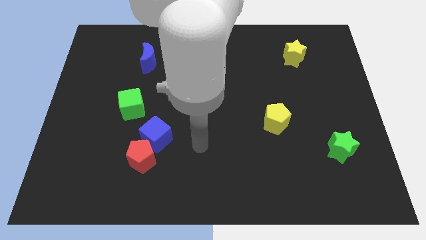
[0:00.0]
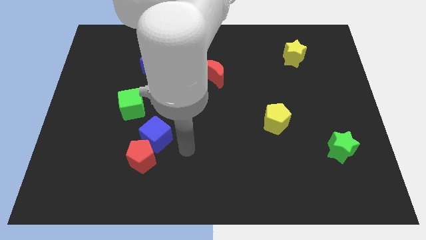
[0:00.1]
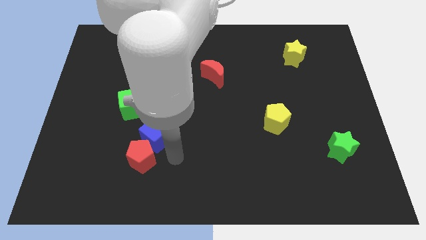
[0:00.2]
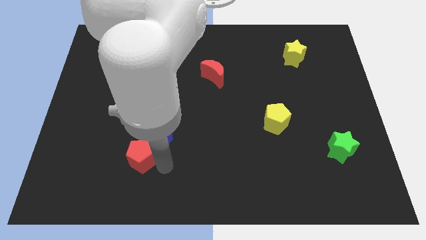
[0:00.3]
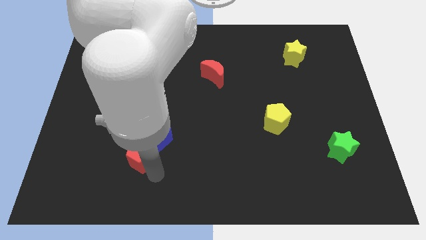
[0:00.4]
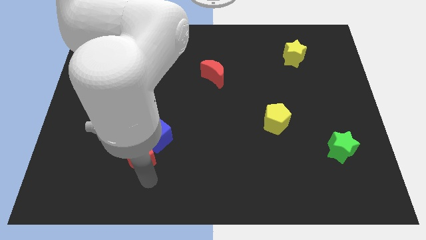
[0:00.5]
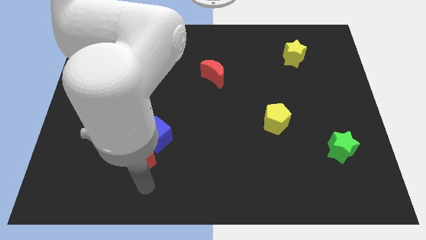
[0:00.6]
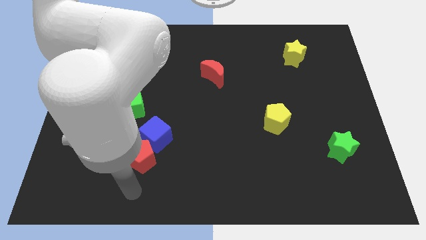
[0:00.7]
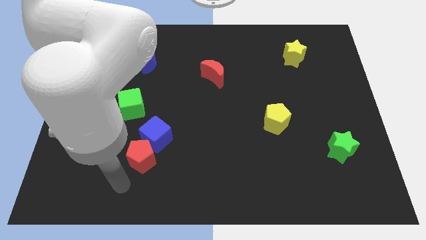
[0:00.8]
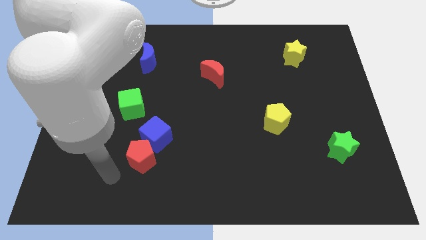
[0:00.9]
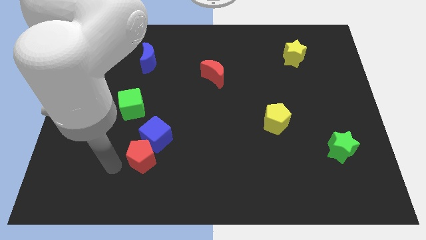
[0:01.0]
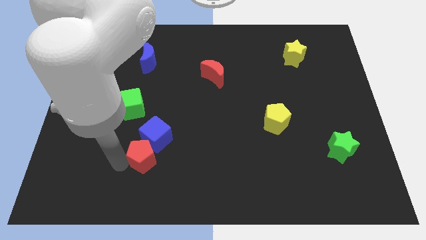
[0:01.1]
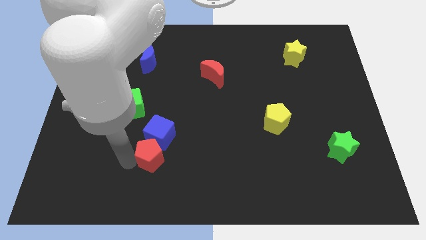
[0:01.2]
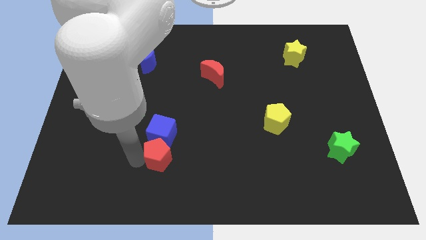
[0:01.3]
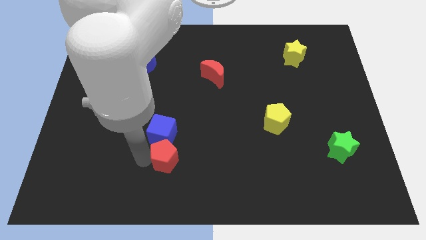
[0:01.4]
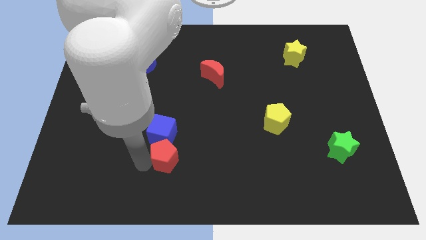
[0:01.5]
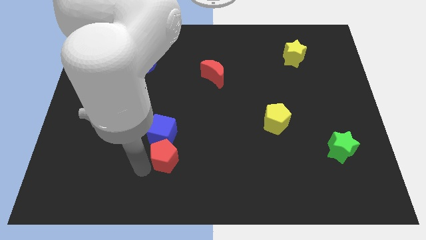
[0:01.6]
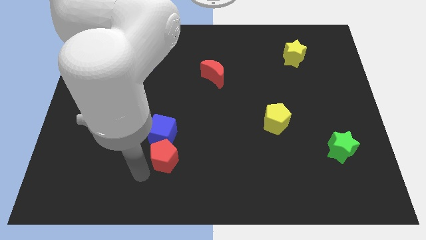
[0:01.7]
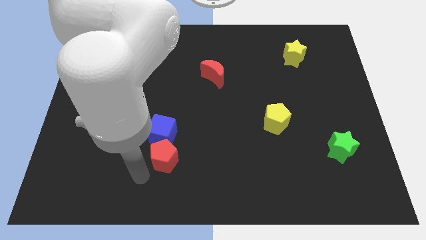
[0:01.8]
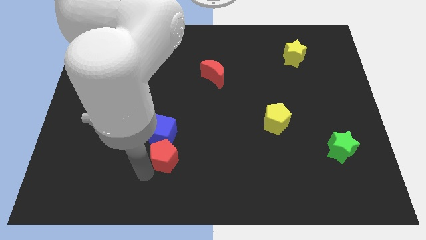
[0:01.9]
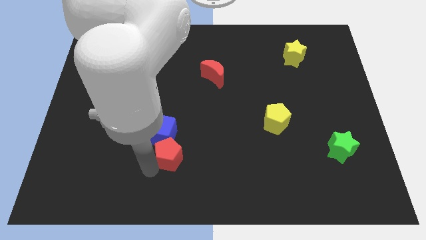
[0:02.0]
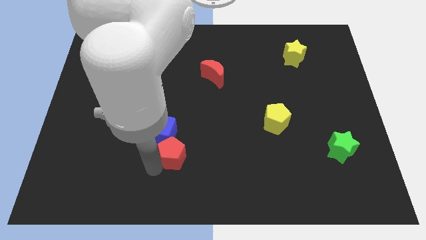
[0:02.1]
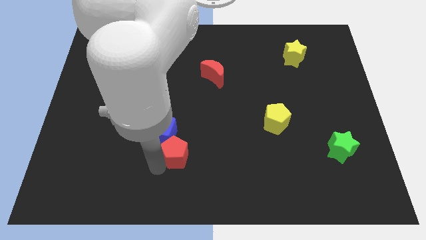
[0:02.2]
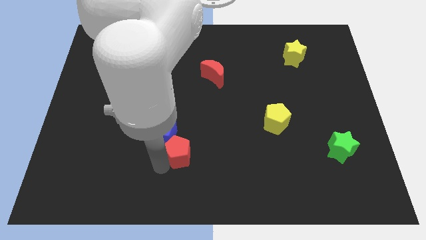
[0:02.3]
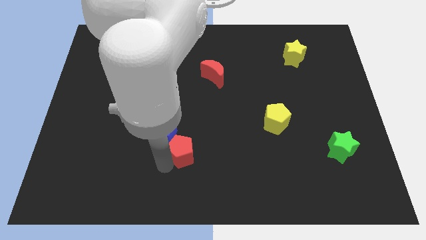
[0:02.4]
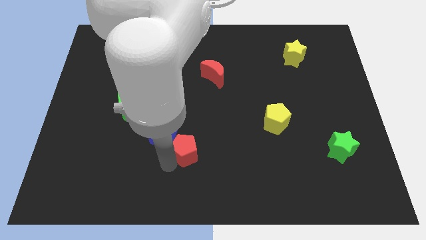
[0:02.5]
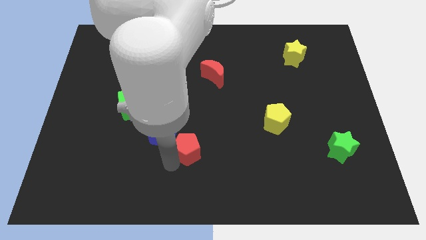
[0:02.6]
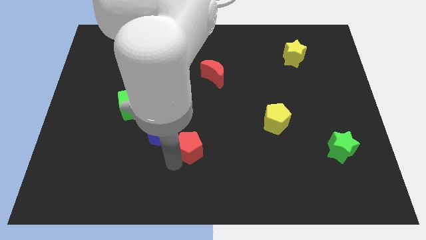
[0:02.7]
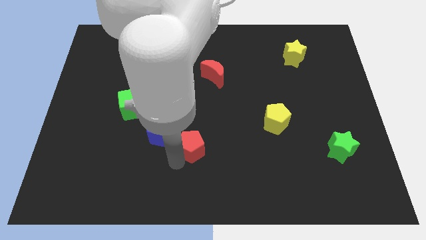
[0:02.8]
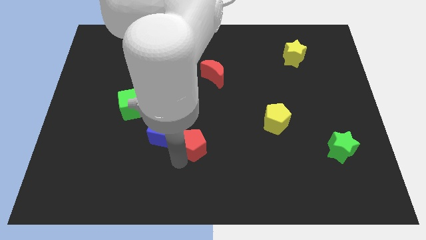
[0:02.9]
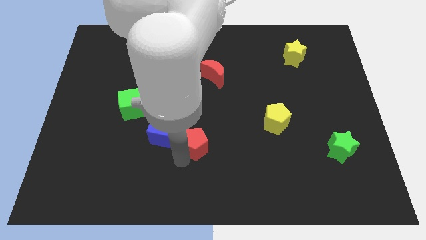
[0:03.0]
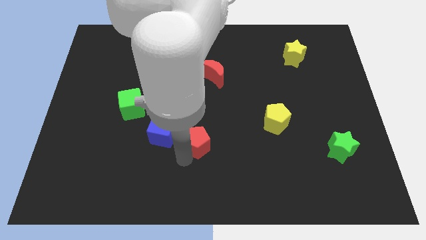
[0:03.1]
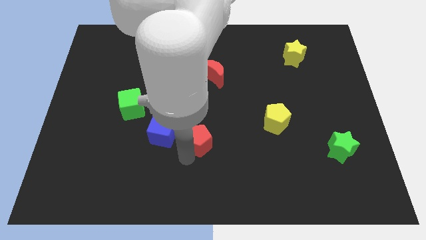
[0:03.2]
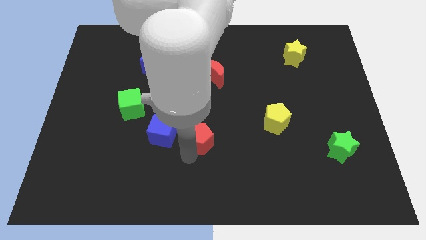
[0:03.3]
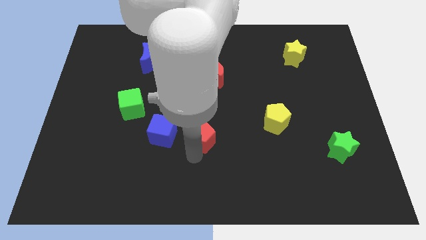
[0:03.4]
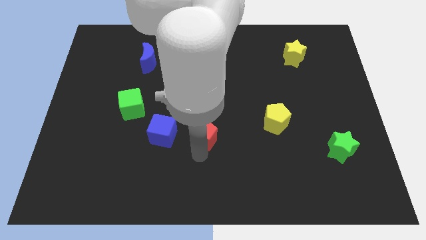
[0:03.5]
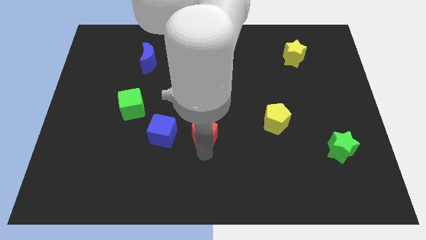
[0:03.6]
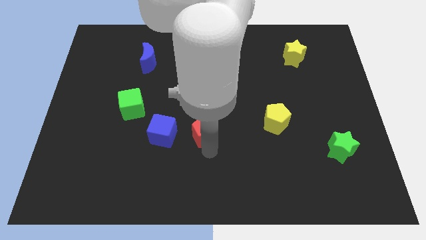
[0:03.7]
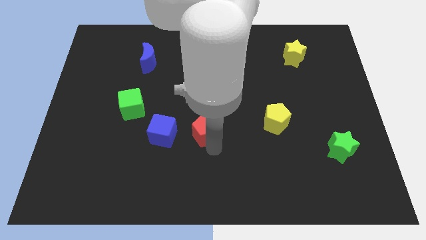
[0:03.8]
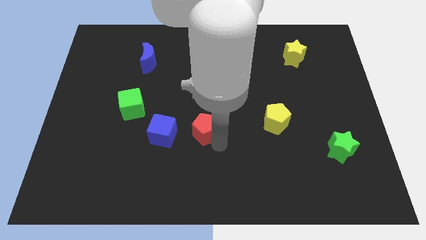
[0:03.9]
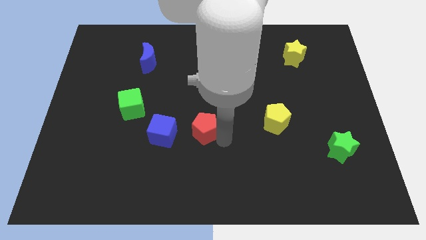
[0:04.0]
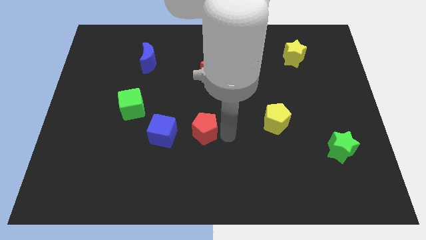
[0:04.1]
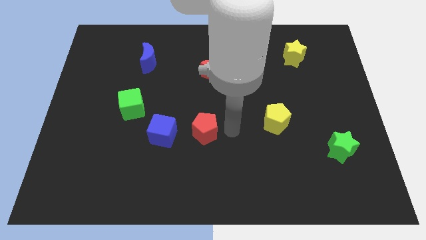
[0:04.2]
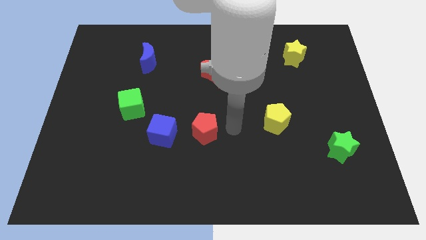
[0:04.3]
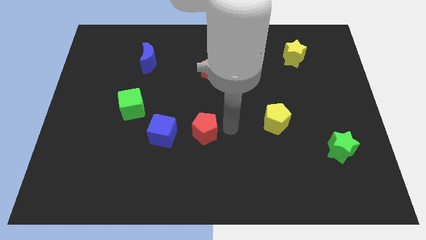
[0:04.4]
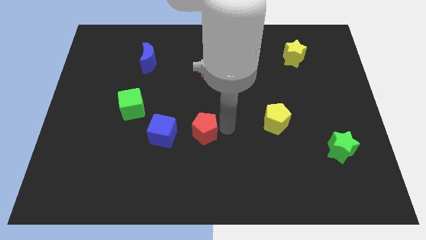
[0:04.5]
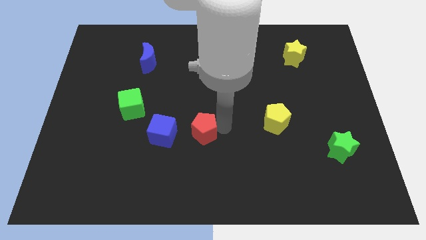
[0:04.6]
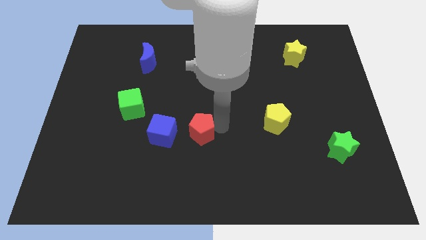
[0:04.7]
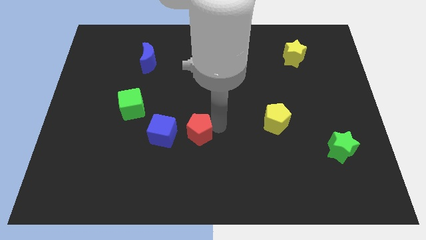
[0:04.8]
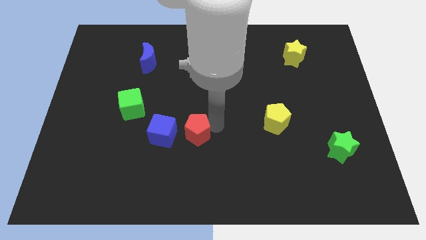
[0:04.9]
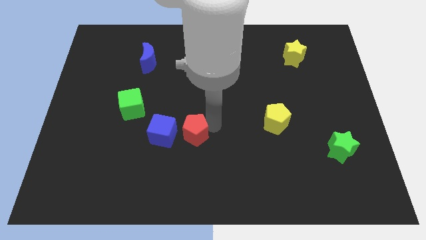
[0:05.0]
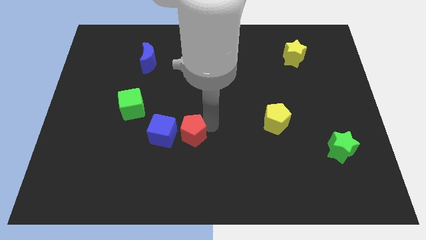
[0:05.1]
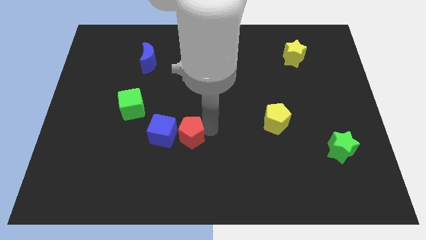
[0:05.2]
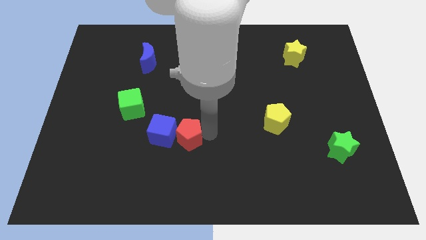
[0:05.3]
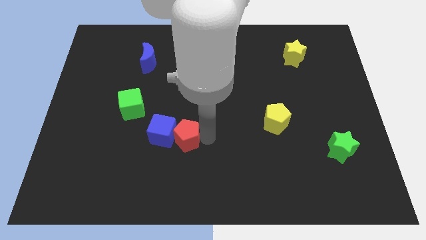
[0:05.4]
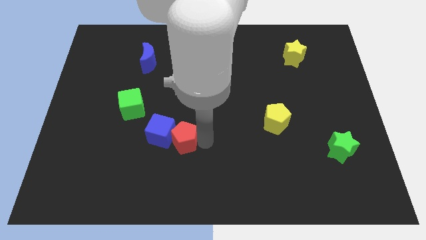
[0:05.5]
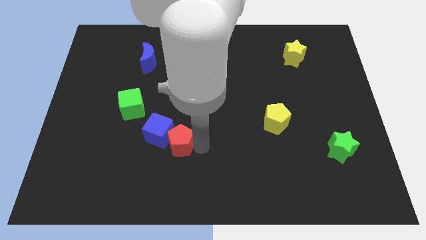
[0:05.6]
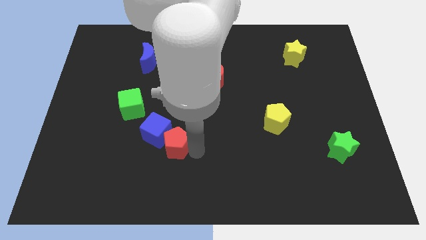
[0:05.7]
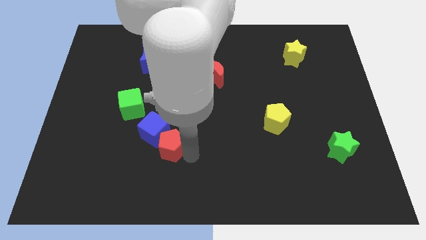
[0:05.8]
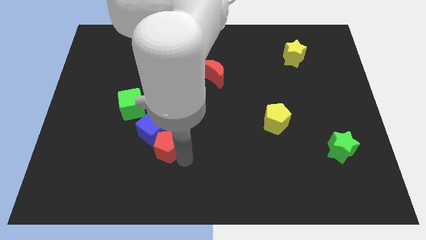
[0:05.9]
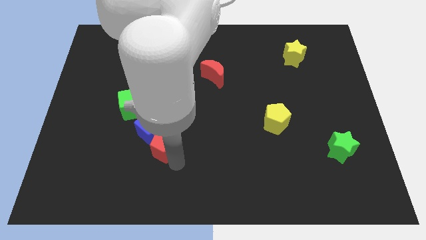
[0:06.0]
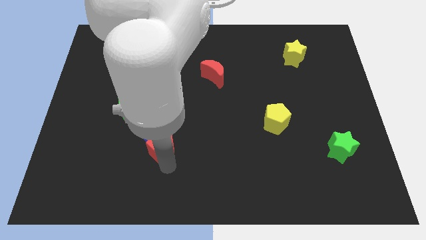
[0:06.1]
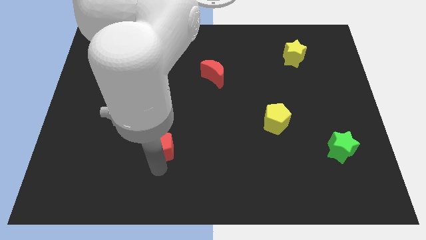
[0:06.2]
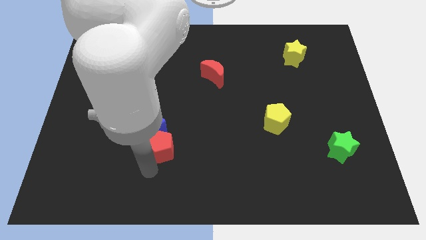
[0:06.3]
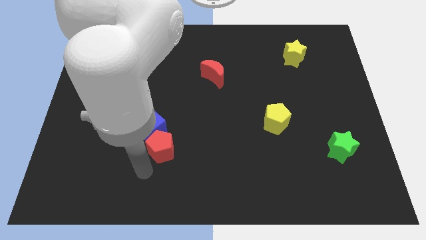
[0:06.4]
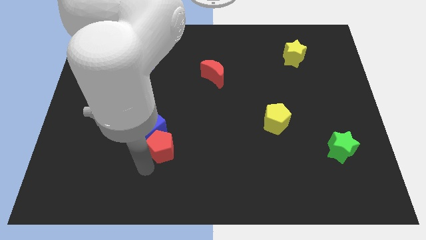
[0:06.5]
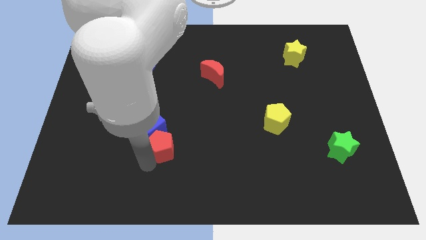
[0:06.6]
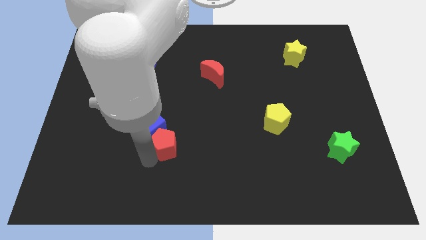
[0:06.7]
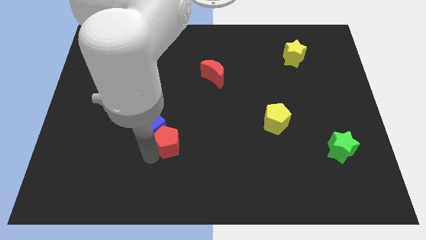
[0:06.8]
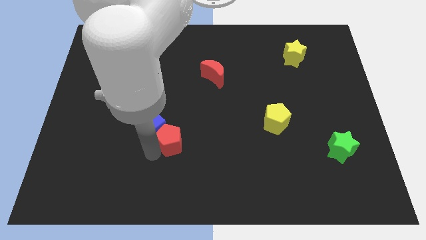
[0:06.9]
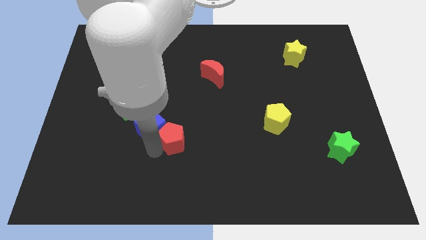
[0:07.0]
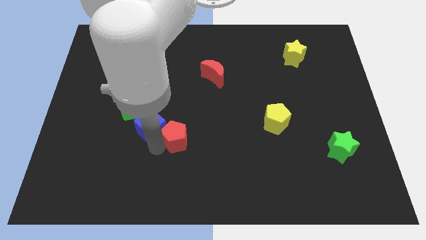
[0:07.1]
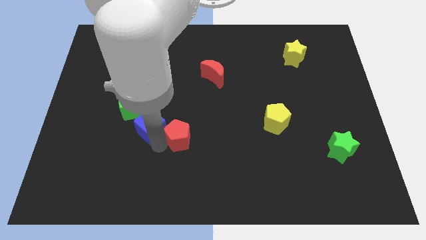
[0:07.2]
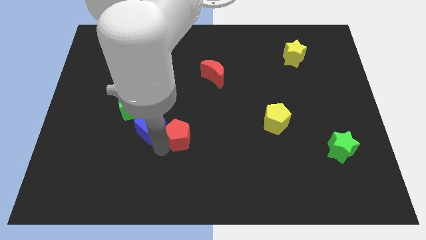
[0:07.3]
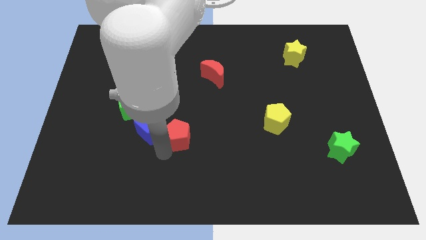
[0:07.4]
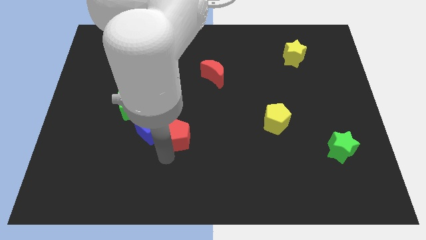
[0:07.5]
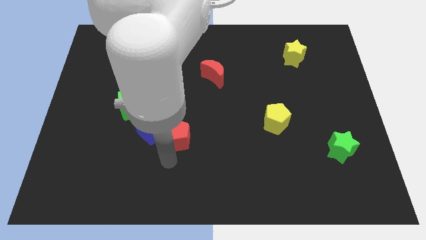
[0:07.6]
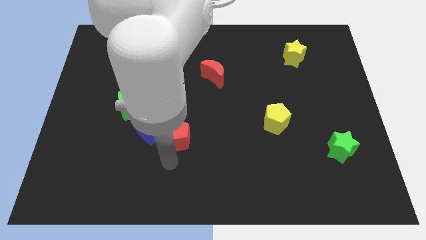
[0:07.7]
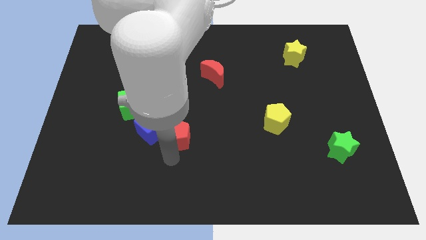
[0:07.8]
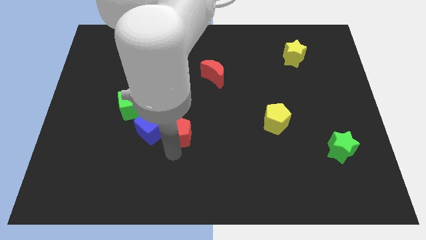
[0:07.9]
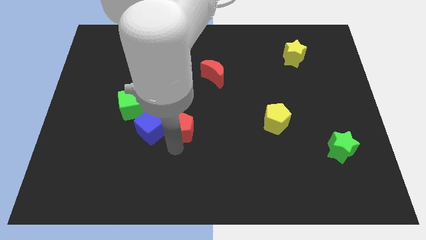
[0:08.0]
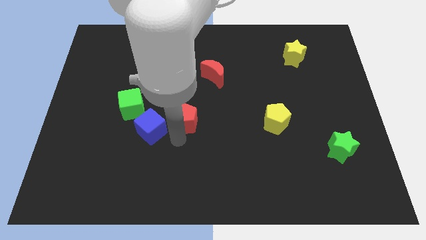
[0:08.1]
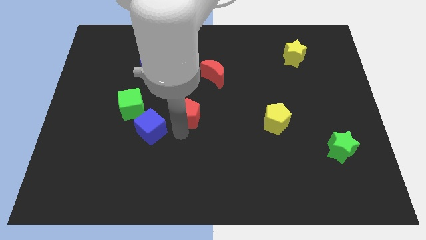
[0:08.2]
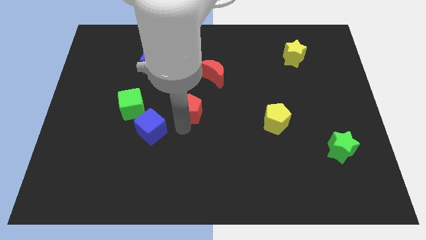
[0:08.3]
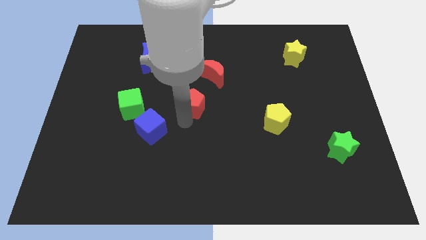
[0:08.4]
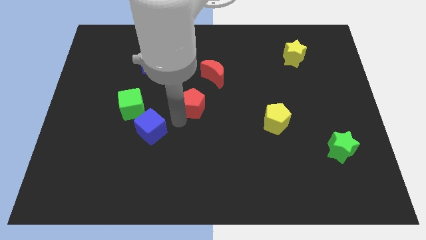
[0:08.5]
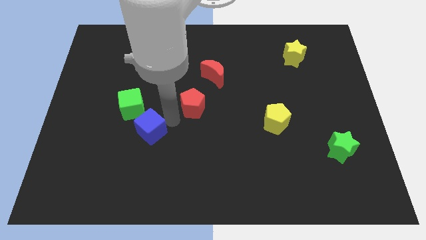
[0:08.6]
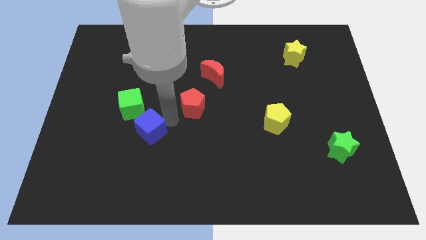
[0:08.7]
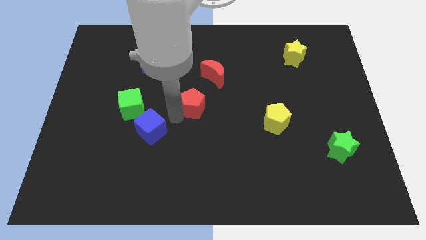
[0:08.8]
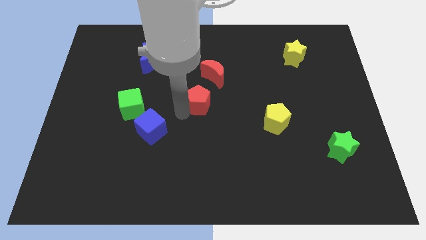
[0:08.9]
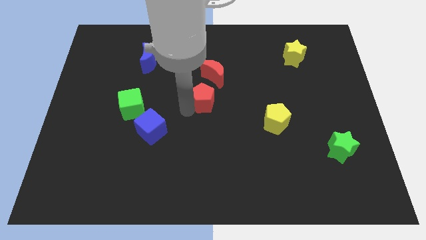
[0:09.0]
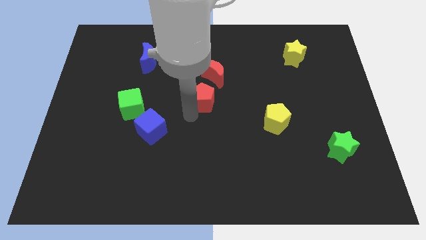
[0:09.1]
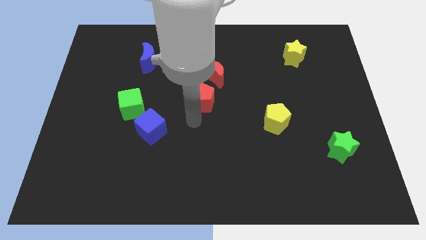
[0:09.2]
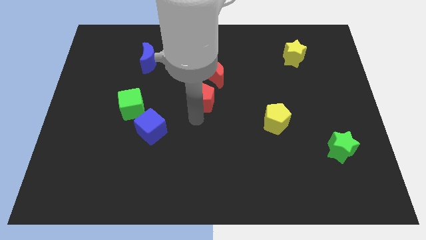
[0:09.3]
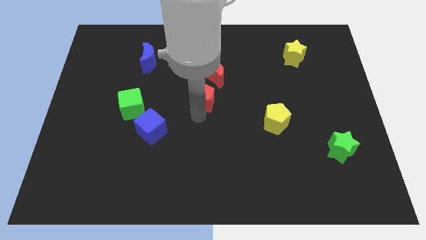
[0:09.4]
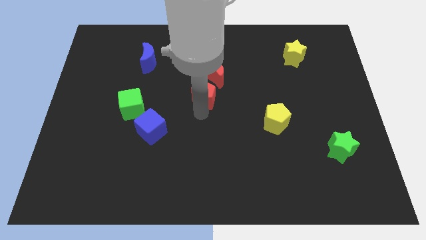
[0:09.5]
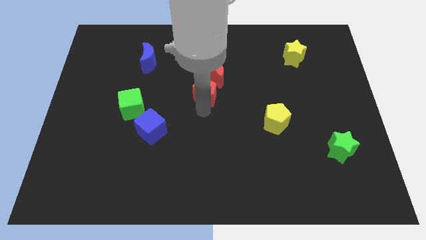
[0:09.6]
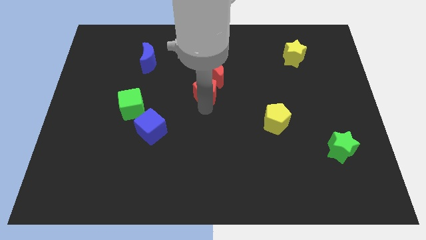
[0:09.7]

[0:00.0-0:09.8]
put the red pentagon close to the red moon
